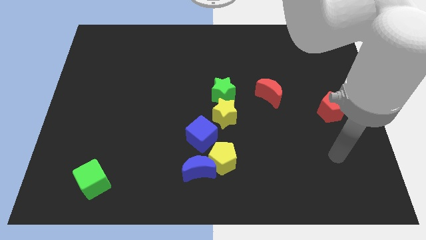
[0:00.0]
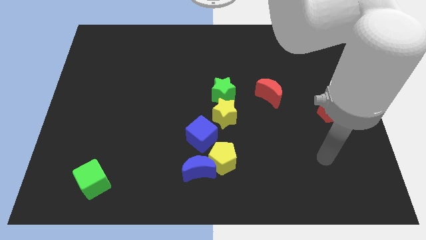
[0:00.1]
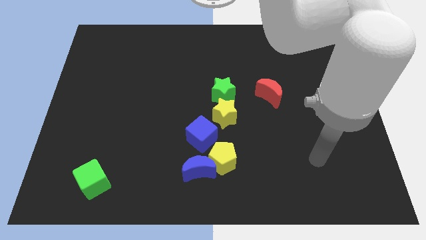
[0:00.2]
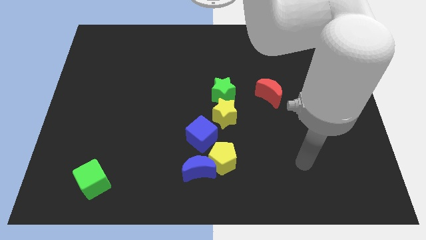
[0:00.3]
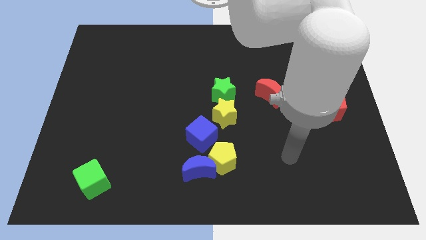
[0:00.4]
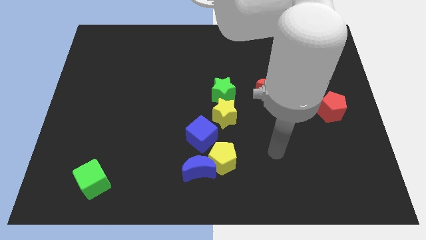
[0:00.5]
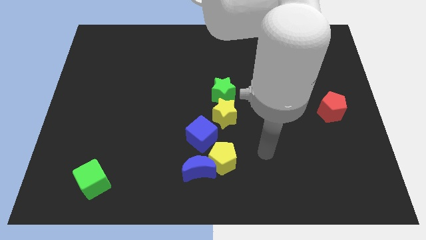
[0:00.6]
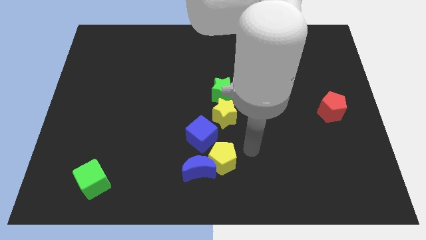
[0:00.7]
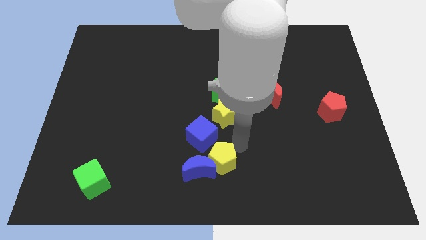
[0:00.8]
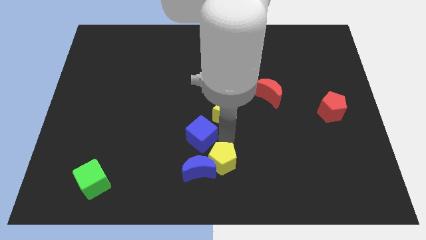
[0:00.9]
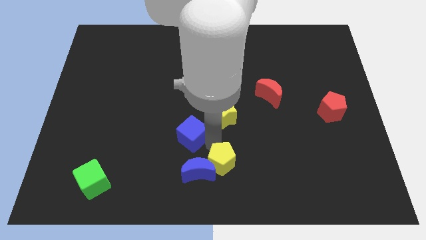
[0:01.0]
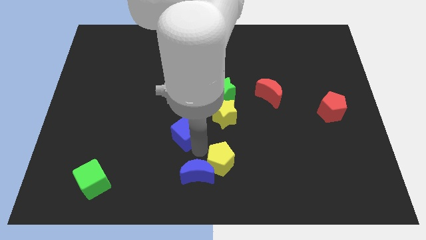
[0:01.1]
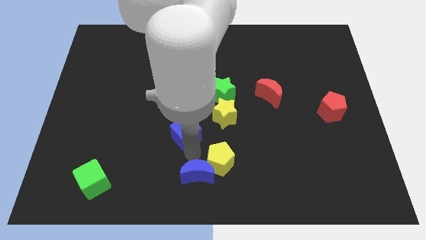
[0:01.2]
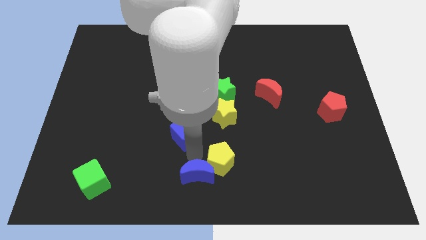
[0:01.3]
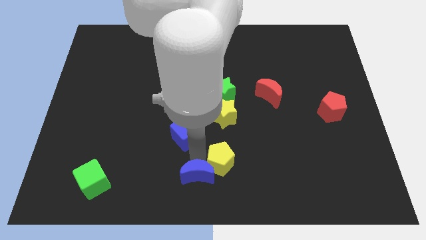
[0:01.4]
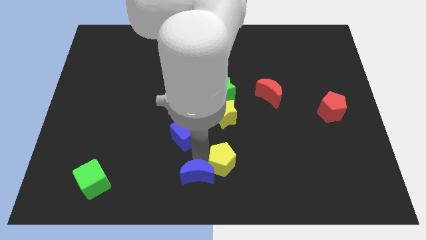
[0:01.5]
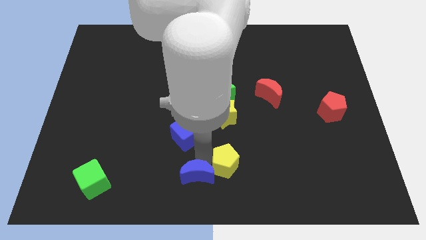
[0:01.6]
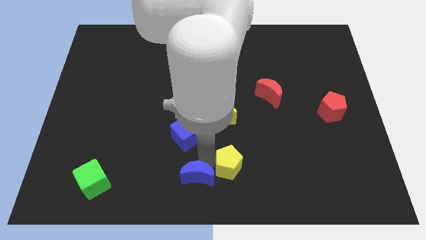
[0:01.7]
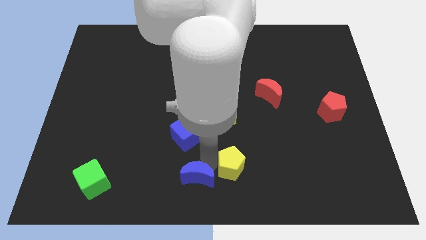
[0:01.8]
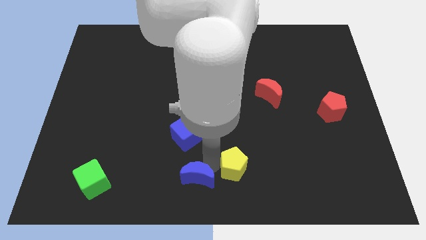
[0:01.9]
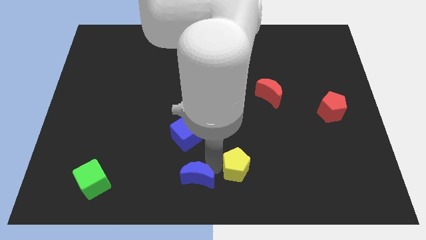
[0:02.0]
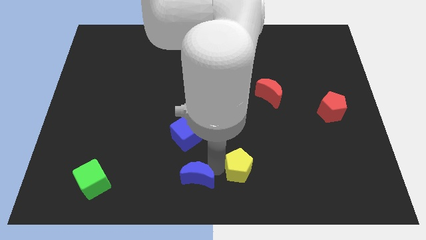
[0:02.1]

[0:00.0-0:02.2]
separate the yellow pentagon from the blue moon and blue cube

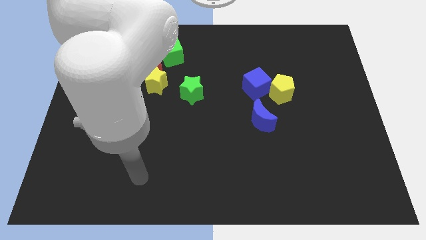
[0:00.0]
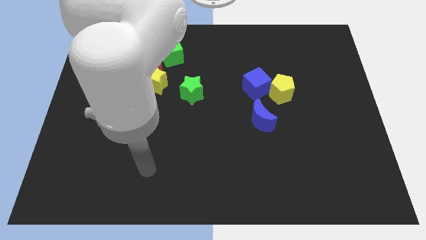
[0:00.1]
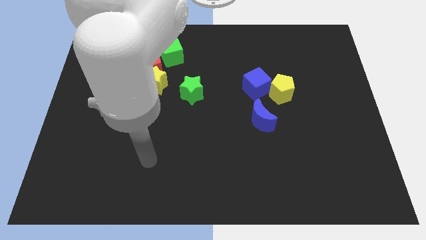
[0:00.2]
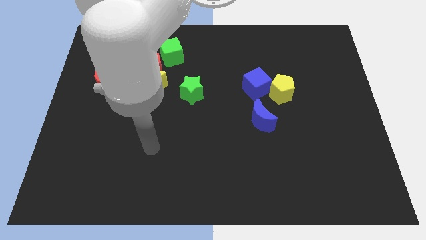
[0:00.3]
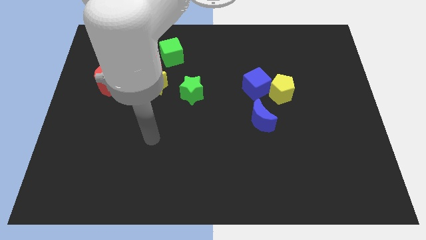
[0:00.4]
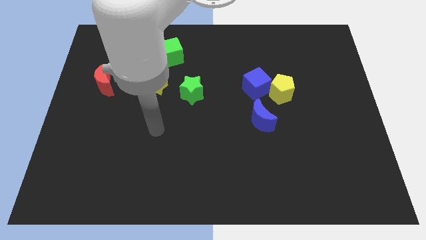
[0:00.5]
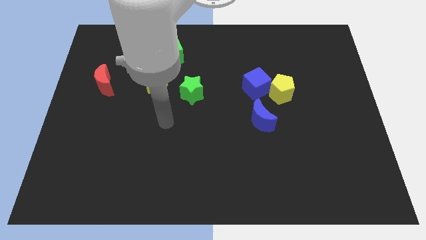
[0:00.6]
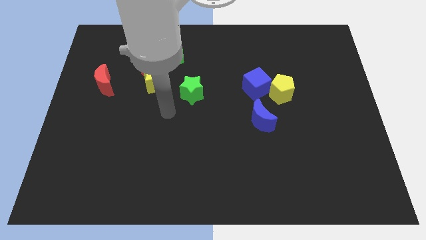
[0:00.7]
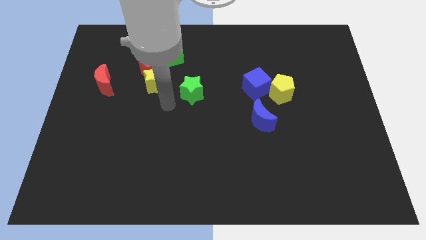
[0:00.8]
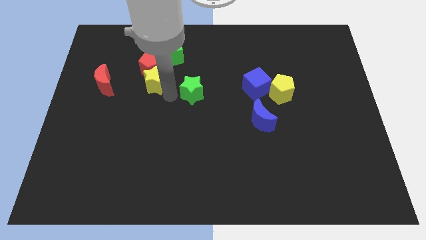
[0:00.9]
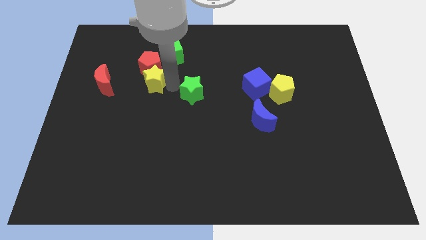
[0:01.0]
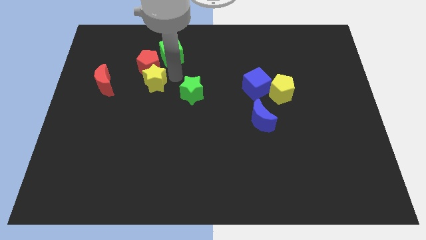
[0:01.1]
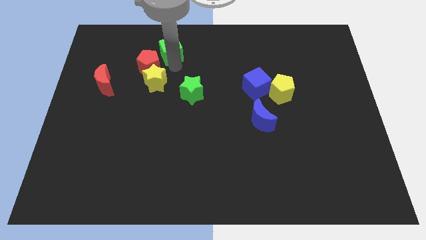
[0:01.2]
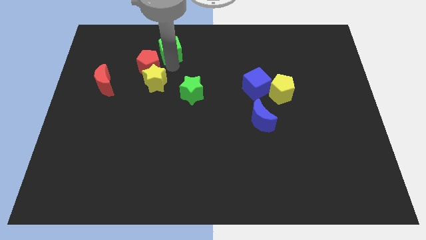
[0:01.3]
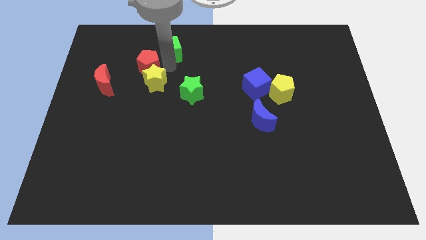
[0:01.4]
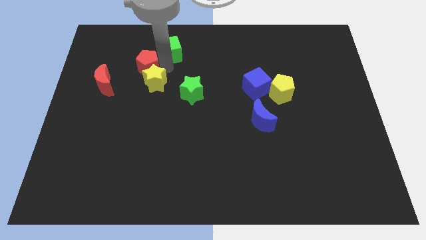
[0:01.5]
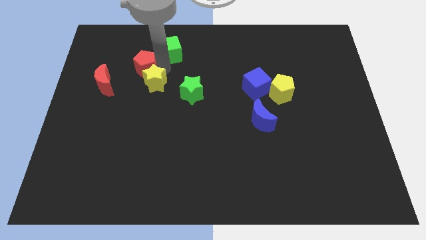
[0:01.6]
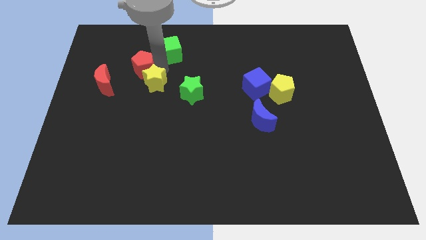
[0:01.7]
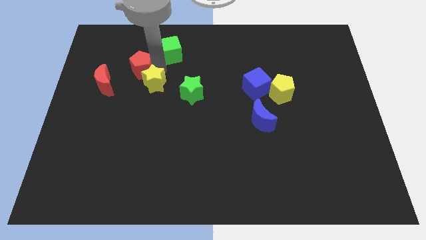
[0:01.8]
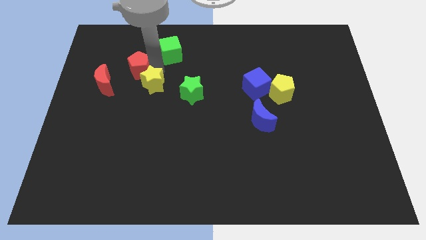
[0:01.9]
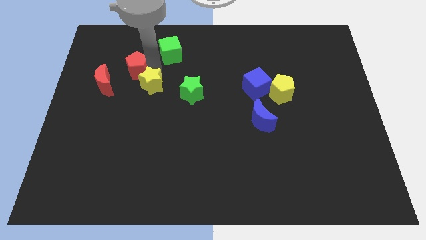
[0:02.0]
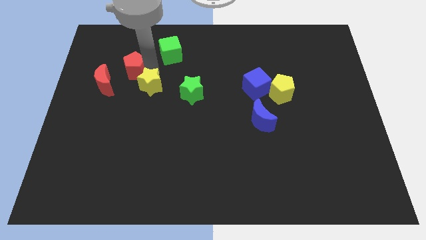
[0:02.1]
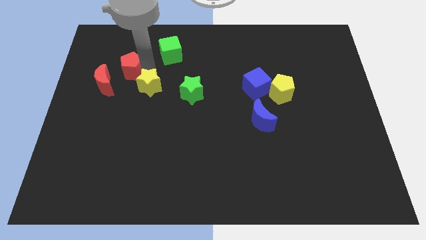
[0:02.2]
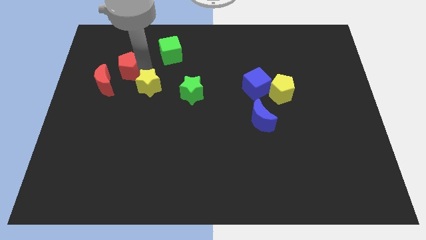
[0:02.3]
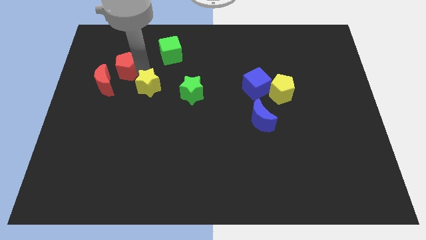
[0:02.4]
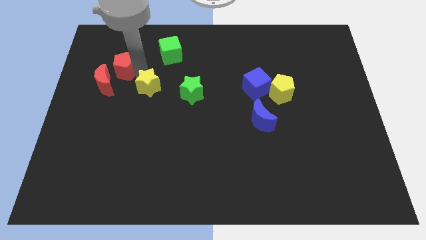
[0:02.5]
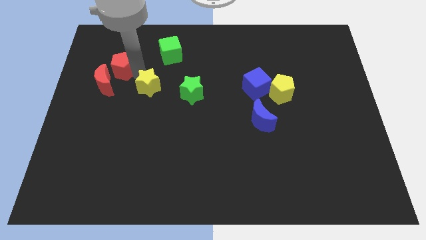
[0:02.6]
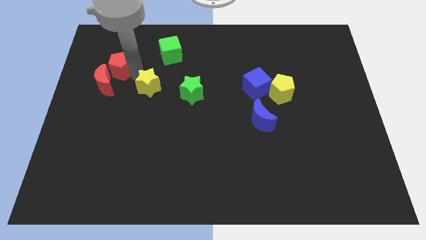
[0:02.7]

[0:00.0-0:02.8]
separate the red pentagon from the yellow star and green cube

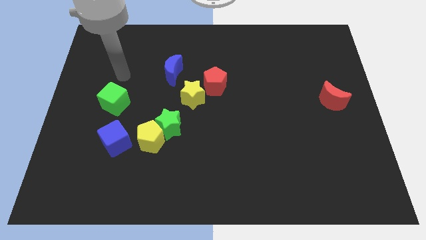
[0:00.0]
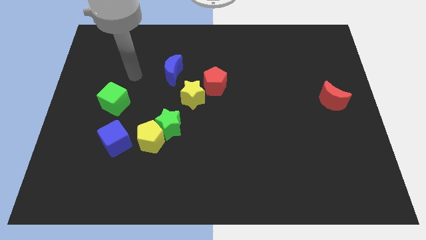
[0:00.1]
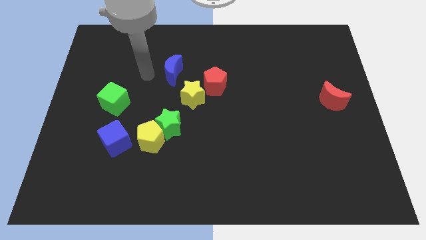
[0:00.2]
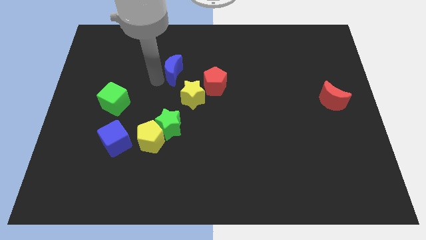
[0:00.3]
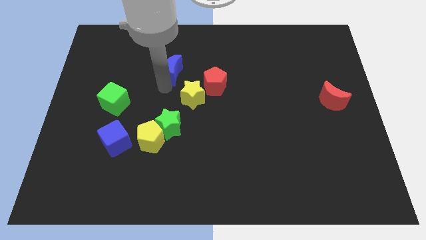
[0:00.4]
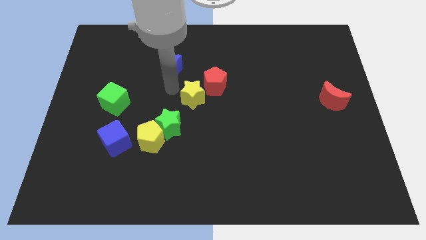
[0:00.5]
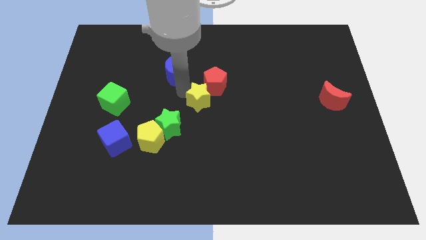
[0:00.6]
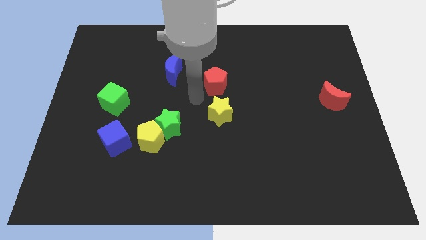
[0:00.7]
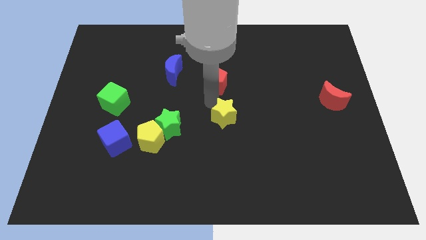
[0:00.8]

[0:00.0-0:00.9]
separate the red pentagon from the yellow star

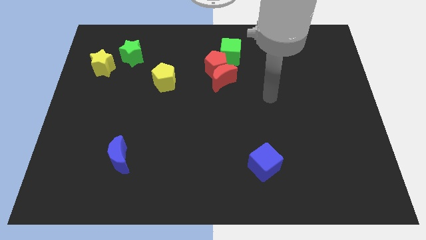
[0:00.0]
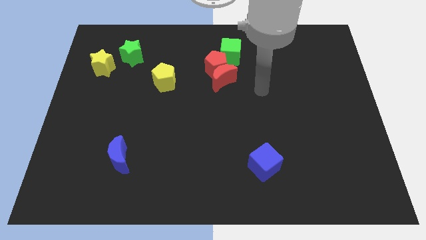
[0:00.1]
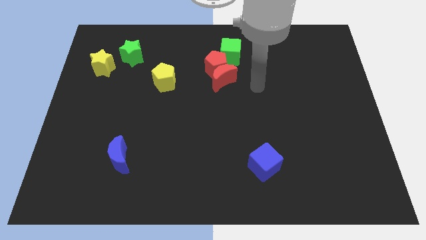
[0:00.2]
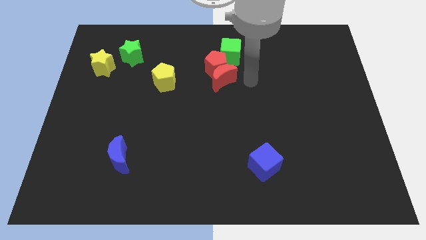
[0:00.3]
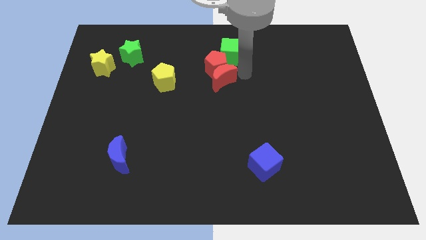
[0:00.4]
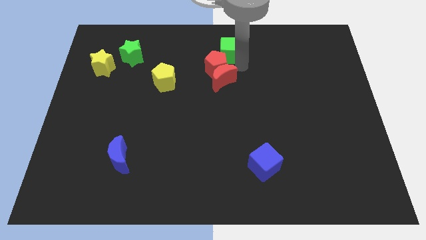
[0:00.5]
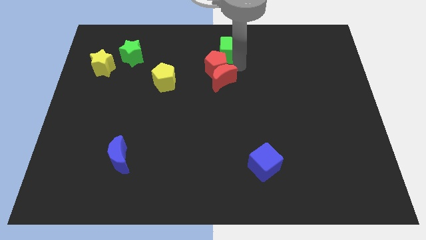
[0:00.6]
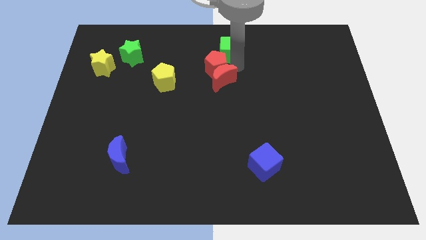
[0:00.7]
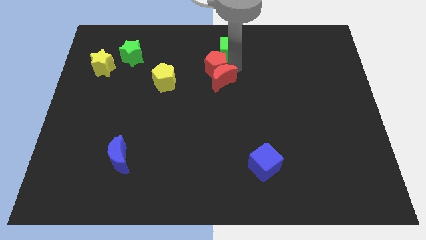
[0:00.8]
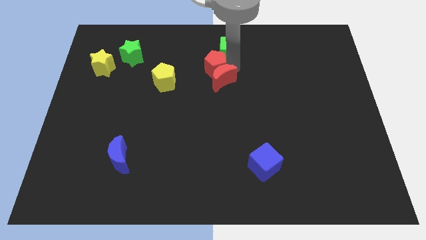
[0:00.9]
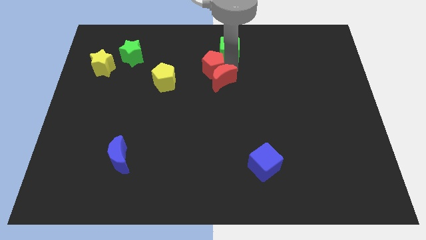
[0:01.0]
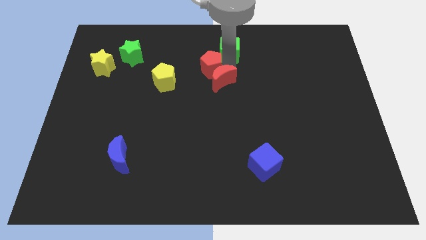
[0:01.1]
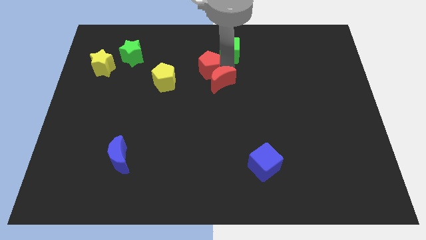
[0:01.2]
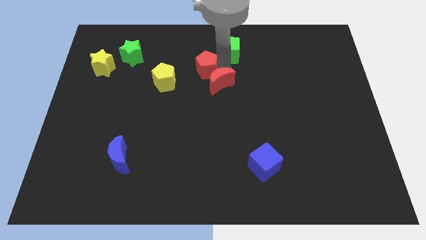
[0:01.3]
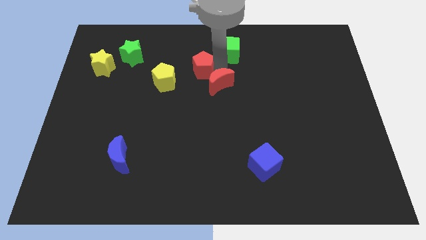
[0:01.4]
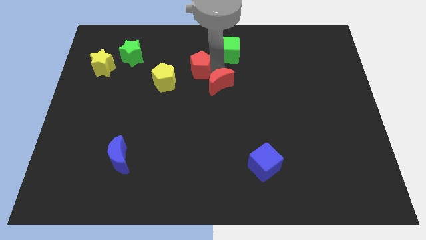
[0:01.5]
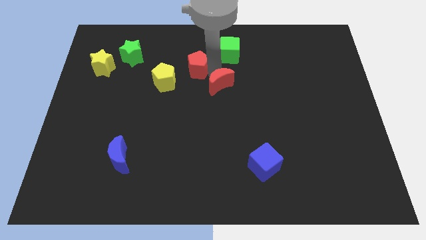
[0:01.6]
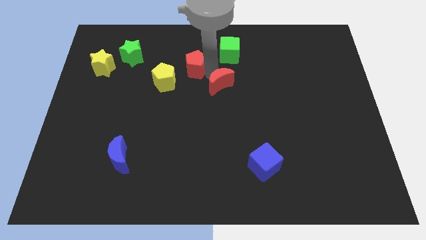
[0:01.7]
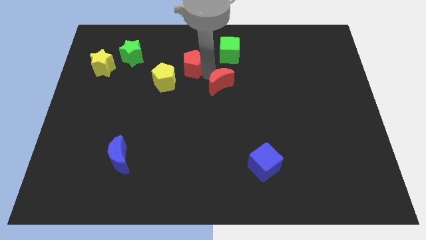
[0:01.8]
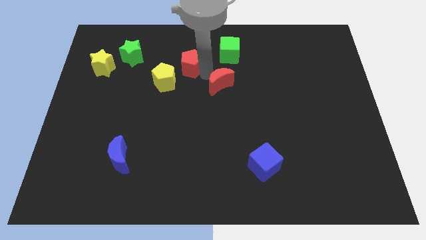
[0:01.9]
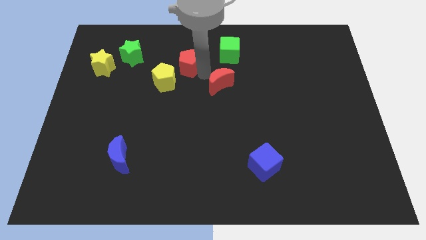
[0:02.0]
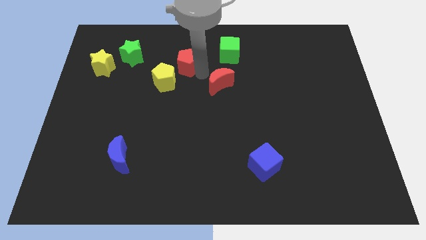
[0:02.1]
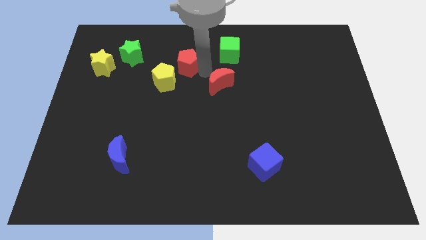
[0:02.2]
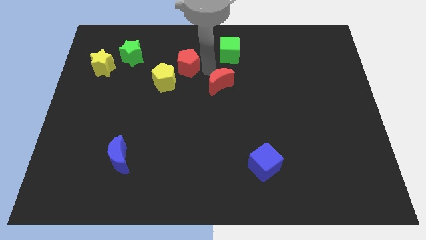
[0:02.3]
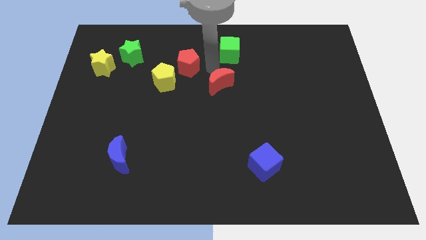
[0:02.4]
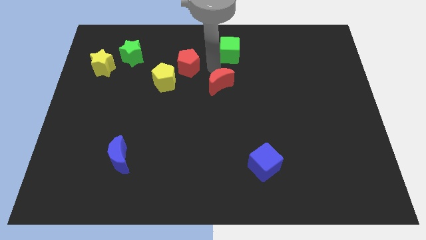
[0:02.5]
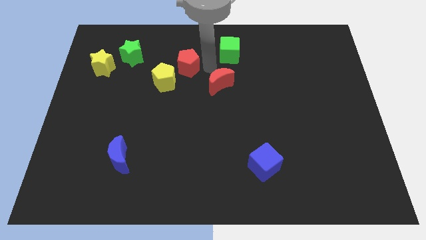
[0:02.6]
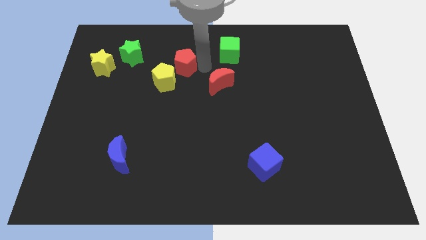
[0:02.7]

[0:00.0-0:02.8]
move the red pentagon away from the red moon and green cube

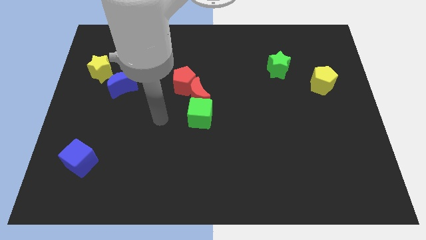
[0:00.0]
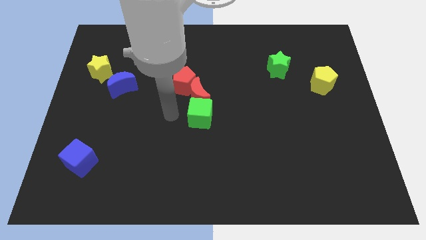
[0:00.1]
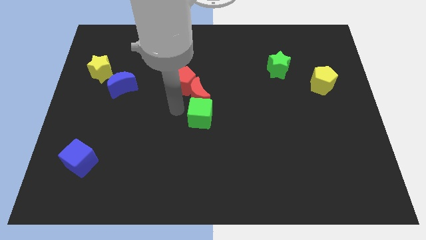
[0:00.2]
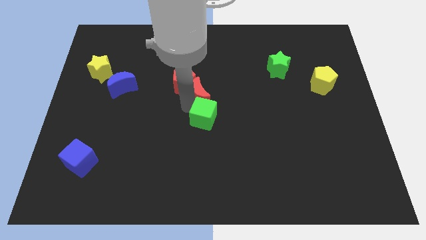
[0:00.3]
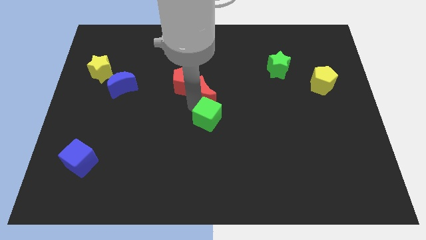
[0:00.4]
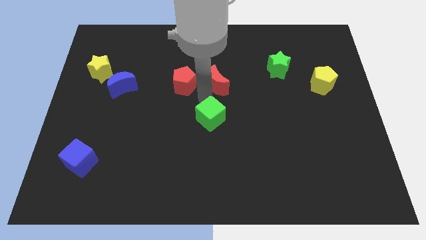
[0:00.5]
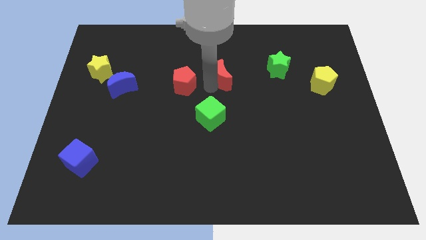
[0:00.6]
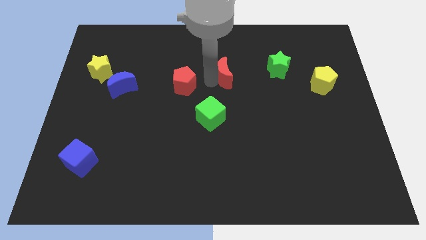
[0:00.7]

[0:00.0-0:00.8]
move the red pentagon away from the red moon
